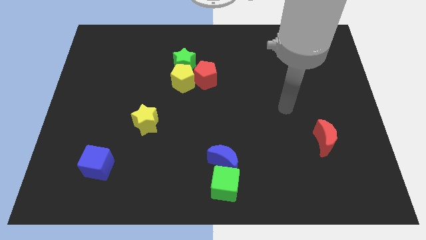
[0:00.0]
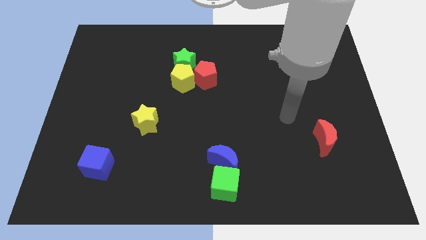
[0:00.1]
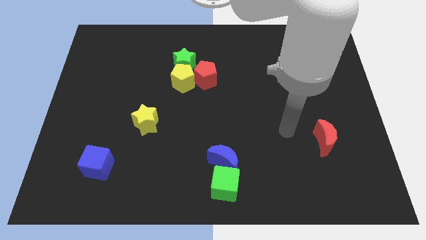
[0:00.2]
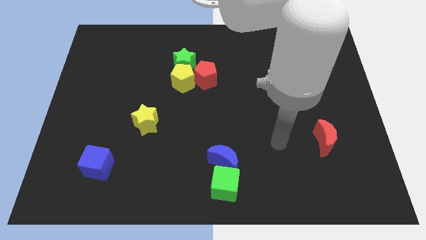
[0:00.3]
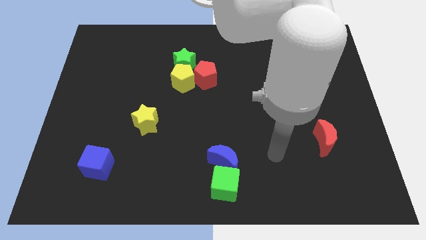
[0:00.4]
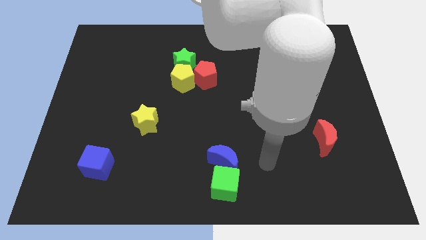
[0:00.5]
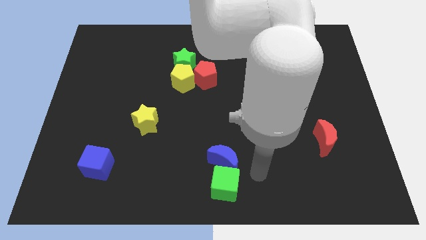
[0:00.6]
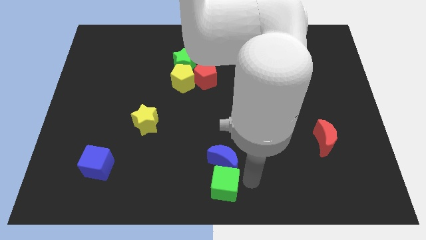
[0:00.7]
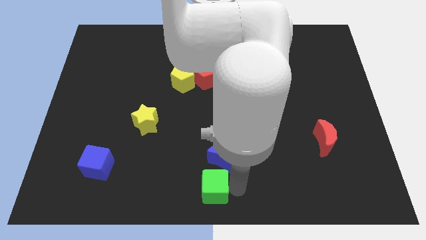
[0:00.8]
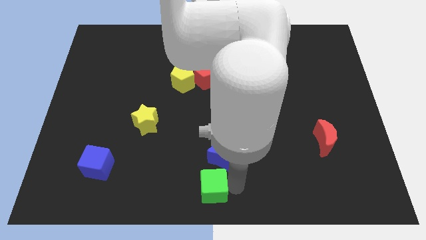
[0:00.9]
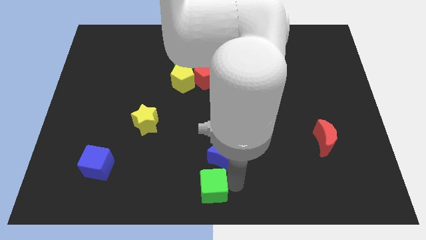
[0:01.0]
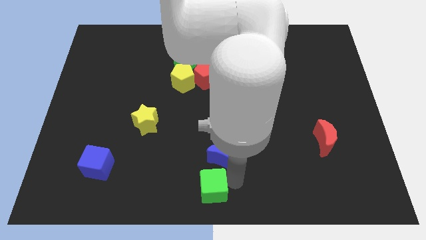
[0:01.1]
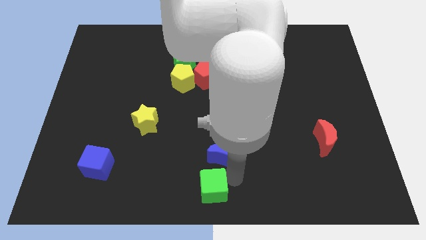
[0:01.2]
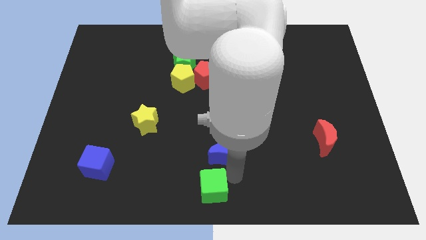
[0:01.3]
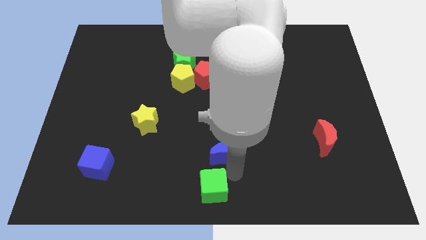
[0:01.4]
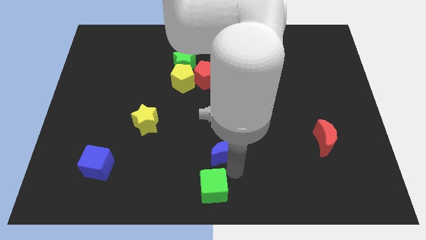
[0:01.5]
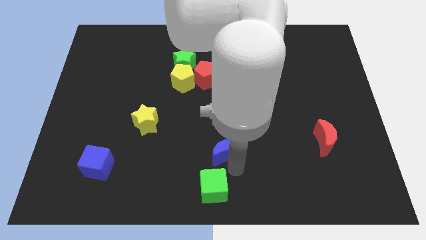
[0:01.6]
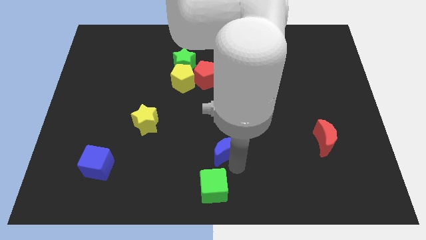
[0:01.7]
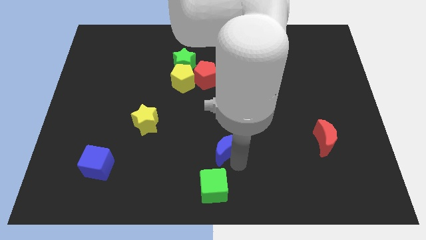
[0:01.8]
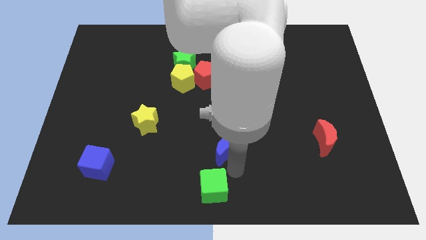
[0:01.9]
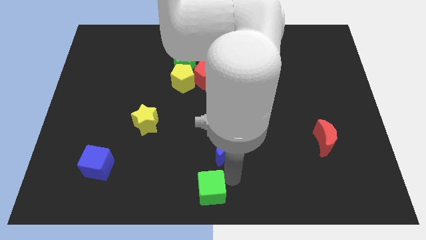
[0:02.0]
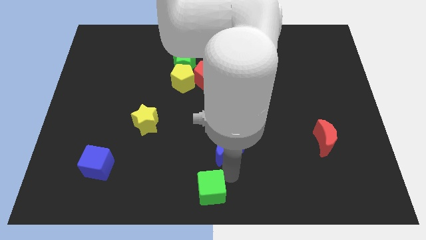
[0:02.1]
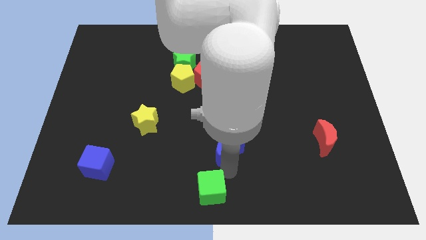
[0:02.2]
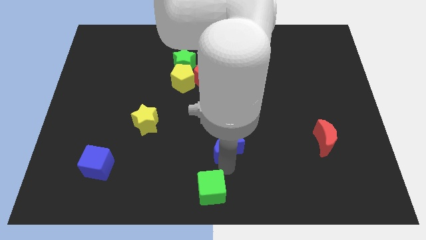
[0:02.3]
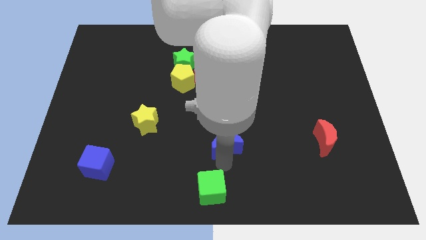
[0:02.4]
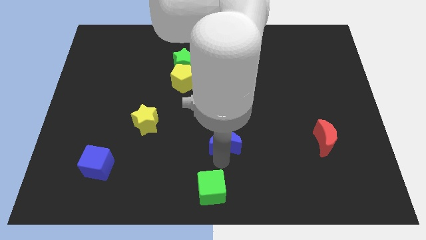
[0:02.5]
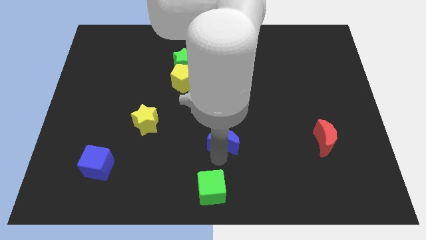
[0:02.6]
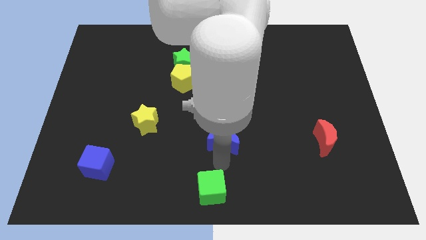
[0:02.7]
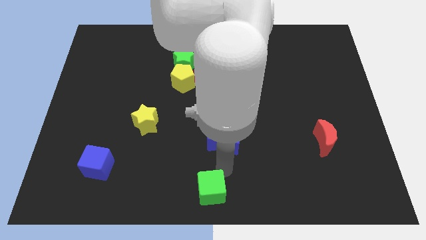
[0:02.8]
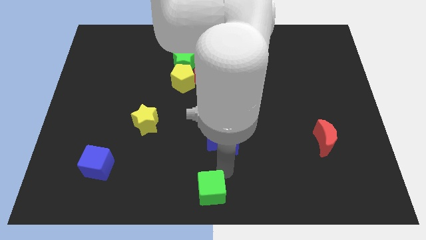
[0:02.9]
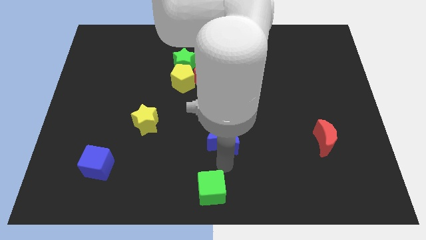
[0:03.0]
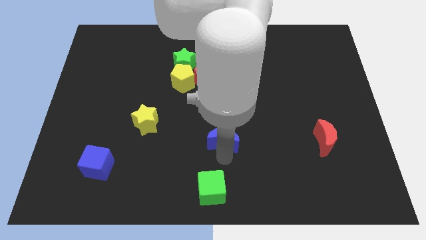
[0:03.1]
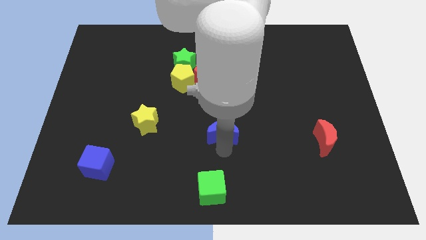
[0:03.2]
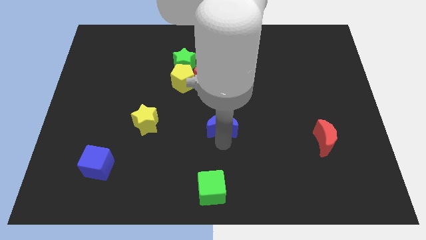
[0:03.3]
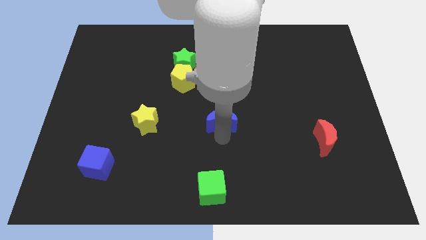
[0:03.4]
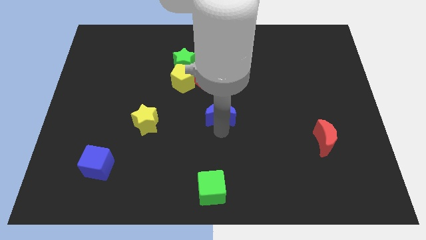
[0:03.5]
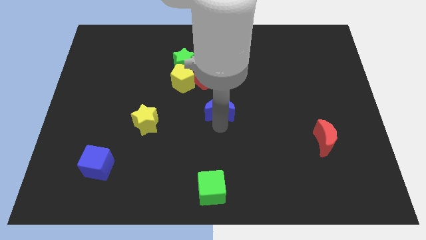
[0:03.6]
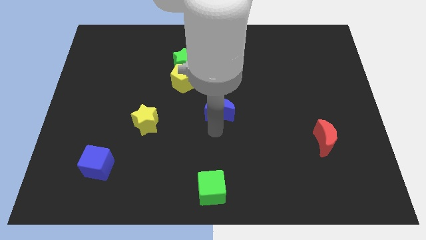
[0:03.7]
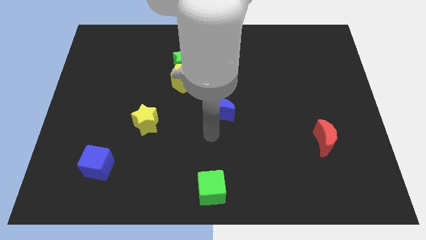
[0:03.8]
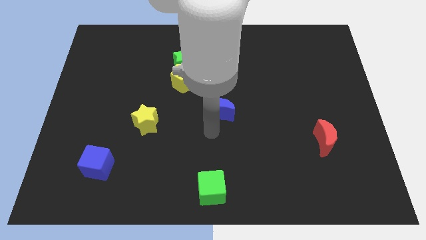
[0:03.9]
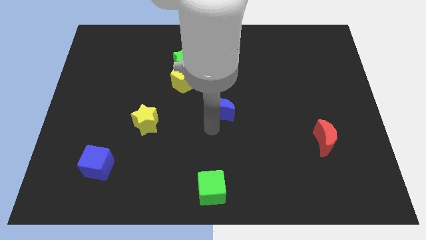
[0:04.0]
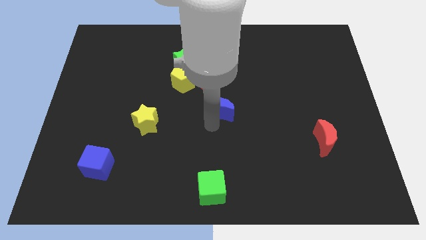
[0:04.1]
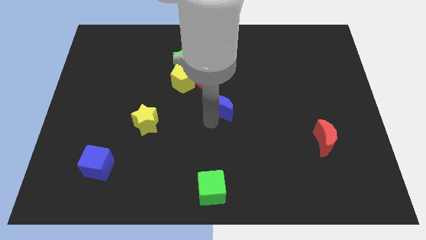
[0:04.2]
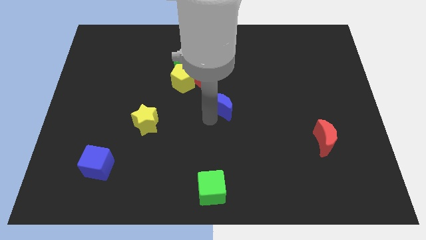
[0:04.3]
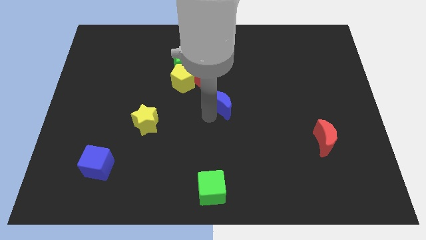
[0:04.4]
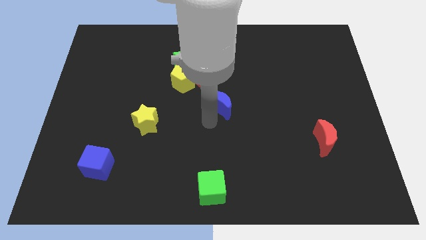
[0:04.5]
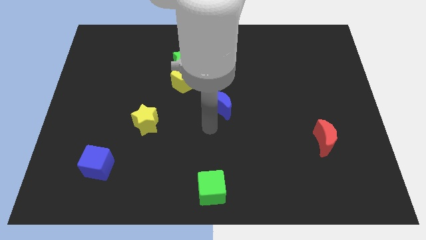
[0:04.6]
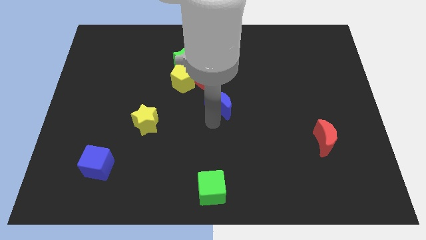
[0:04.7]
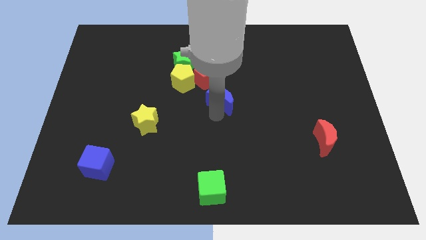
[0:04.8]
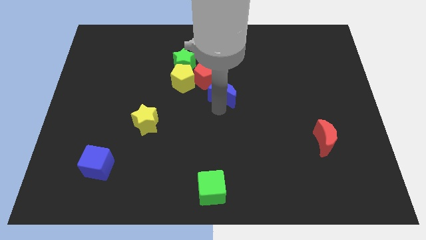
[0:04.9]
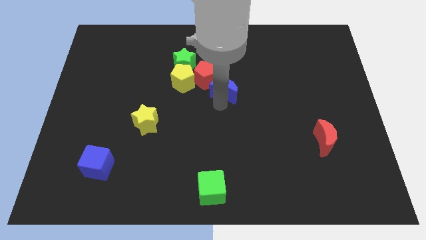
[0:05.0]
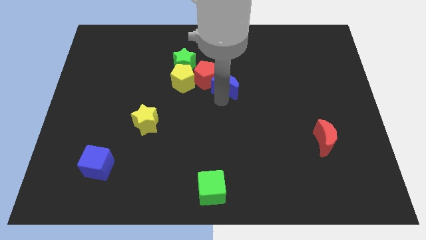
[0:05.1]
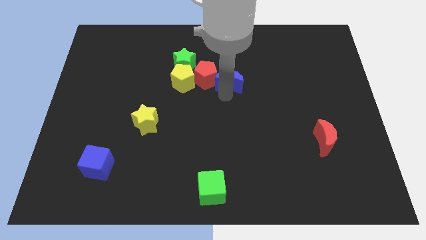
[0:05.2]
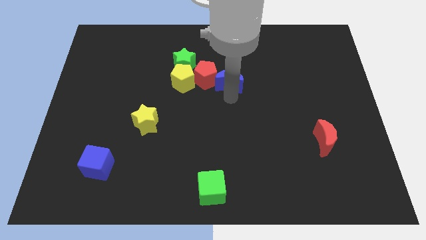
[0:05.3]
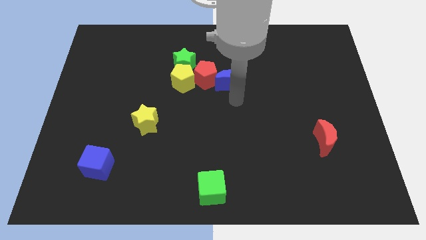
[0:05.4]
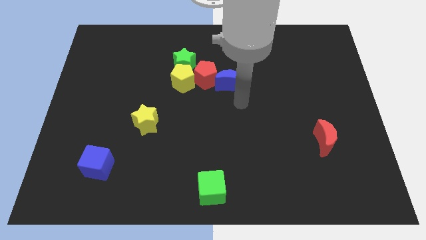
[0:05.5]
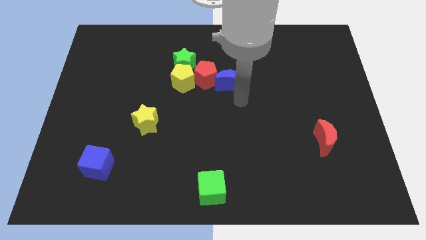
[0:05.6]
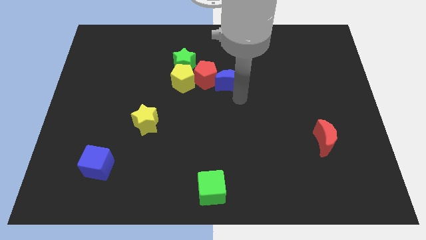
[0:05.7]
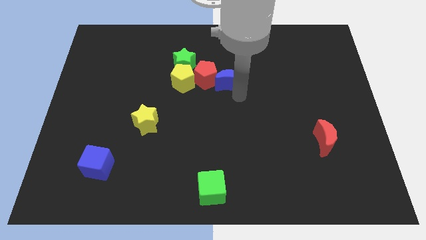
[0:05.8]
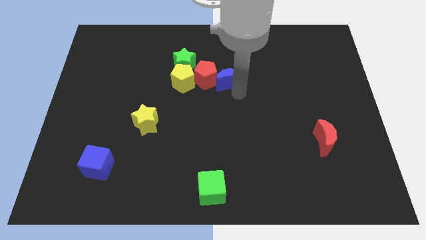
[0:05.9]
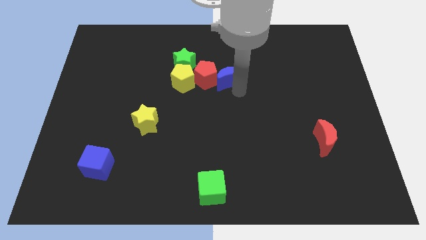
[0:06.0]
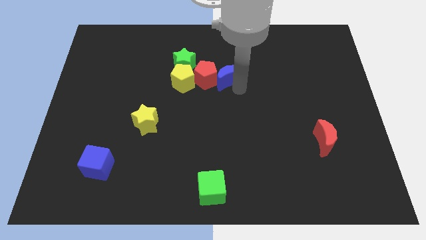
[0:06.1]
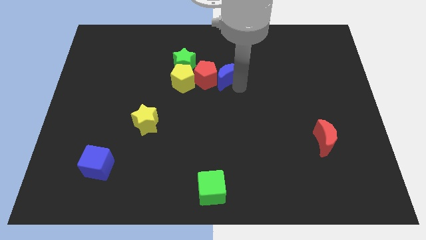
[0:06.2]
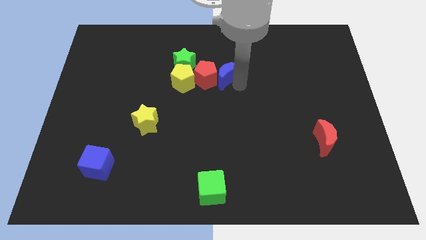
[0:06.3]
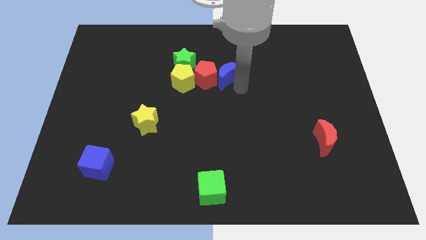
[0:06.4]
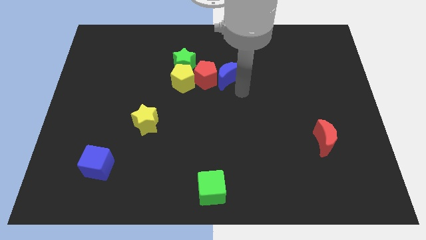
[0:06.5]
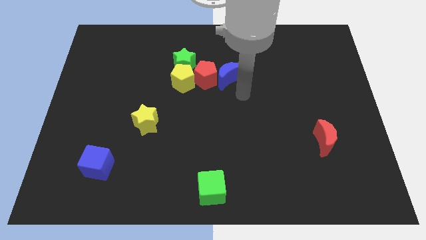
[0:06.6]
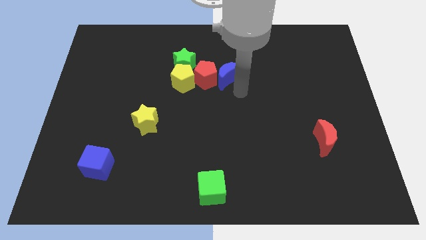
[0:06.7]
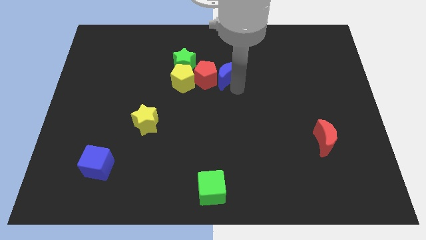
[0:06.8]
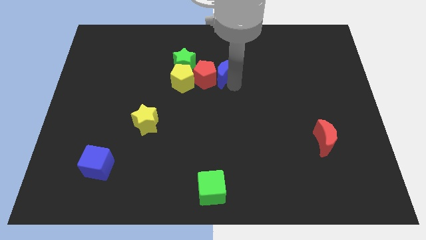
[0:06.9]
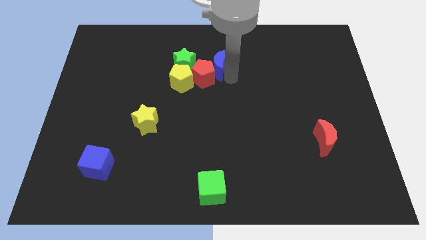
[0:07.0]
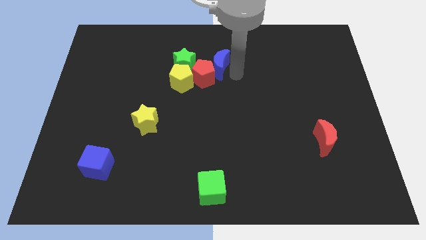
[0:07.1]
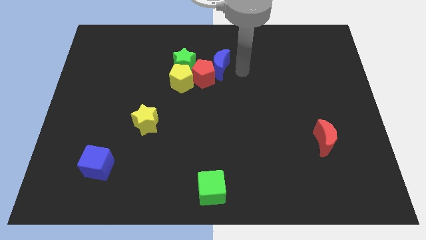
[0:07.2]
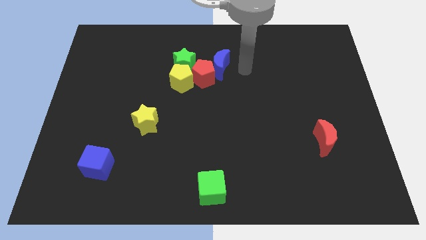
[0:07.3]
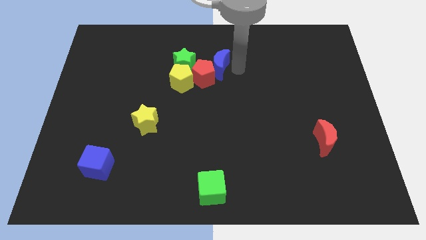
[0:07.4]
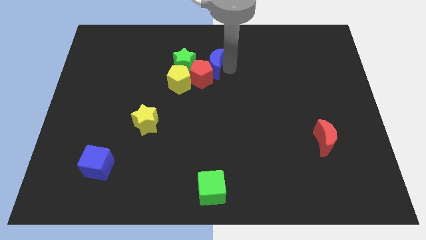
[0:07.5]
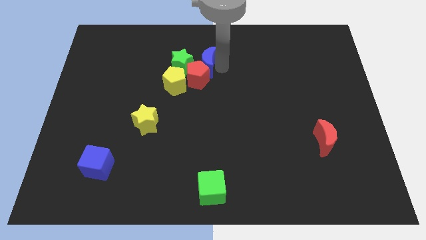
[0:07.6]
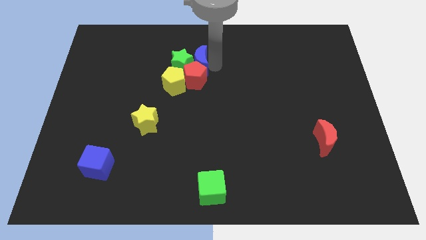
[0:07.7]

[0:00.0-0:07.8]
move the blue moon next to the green star
